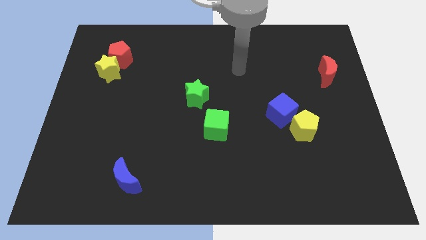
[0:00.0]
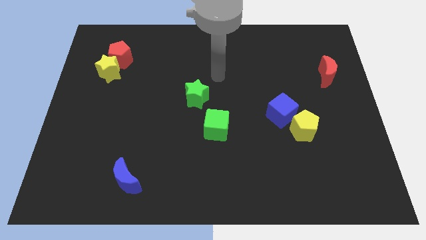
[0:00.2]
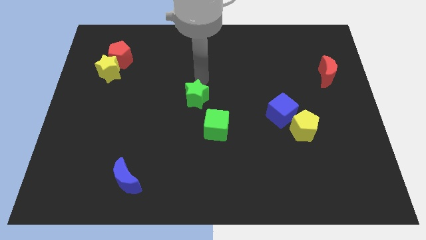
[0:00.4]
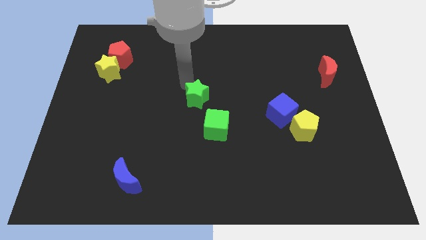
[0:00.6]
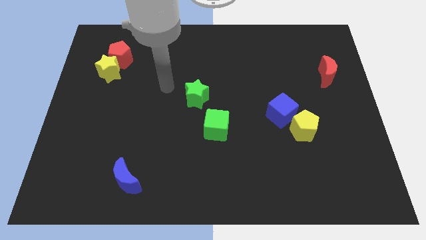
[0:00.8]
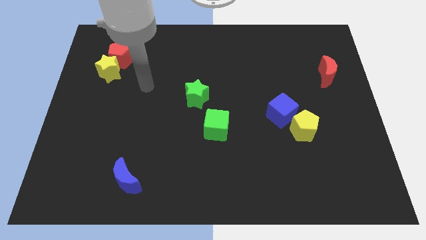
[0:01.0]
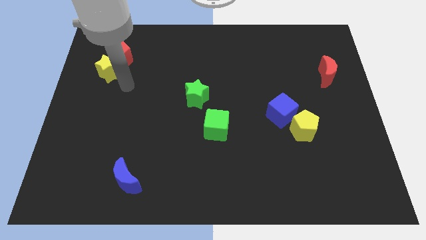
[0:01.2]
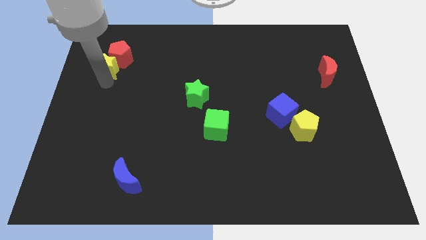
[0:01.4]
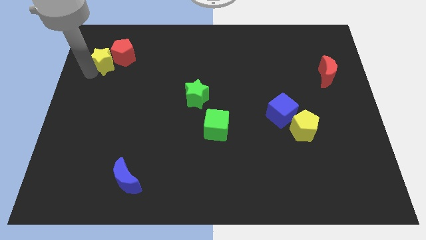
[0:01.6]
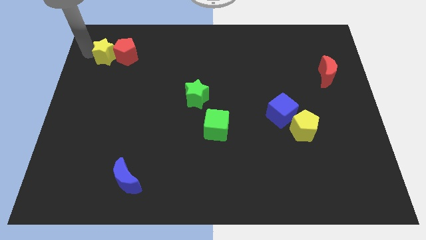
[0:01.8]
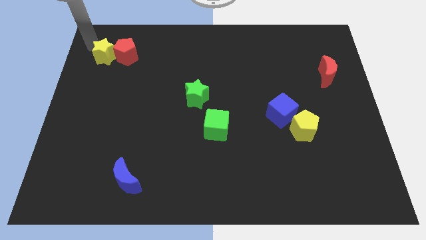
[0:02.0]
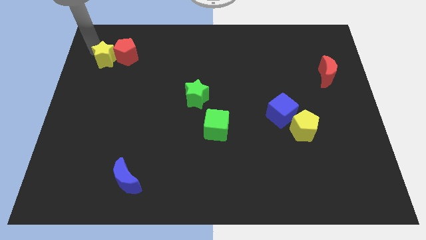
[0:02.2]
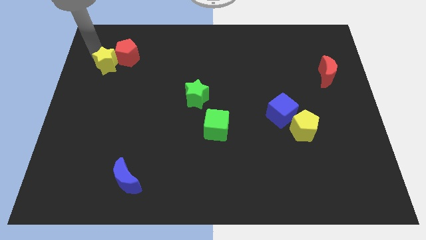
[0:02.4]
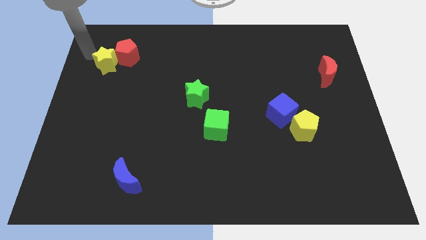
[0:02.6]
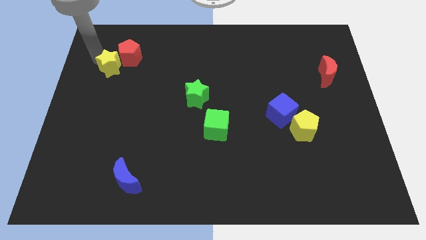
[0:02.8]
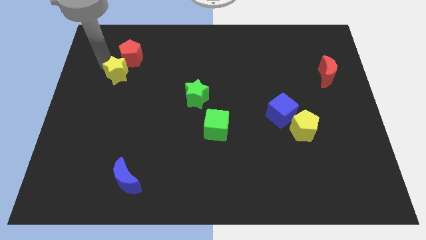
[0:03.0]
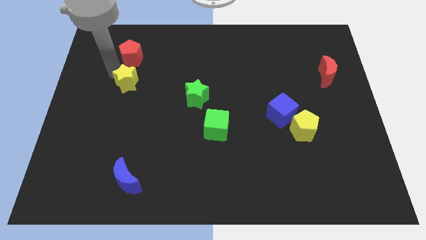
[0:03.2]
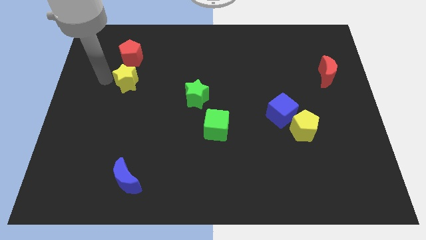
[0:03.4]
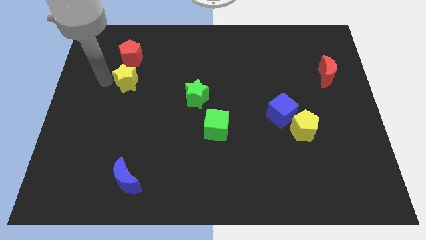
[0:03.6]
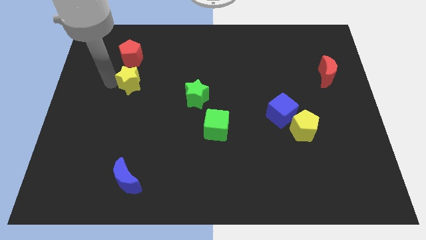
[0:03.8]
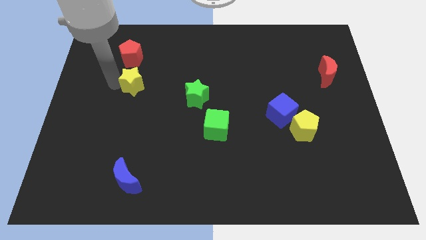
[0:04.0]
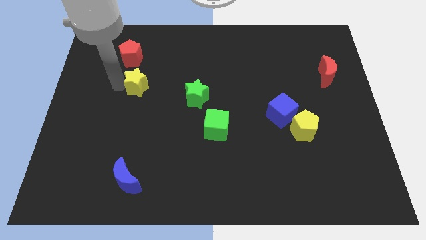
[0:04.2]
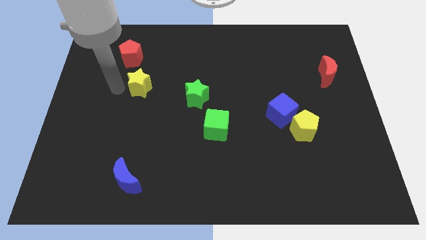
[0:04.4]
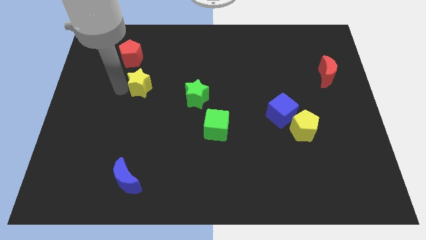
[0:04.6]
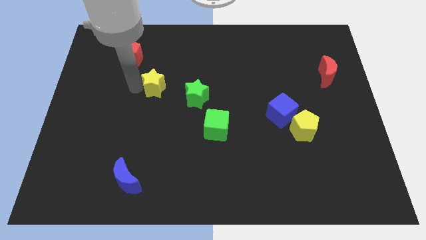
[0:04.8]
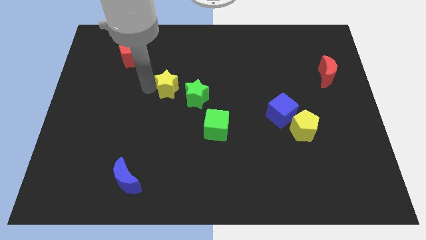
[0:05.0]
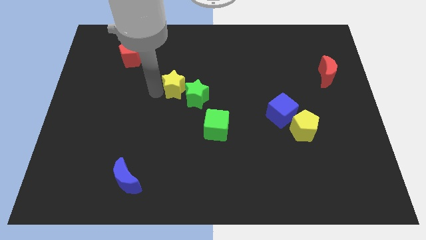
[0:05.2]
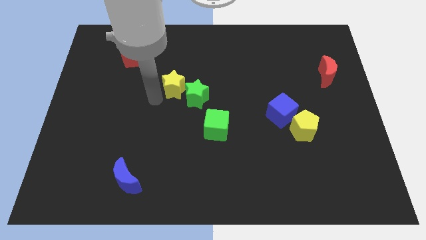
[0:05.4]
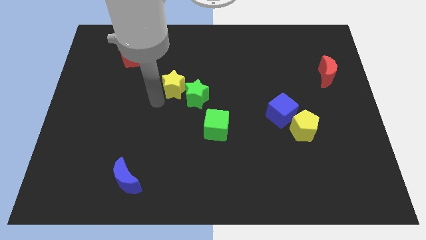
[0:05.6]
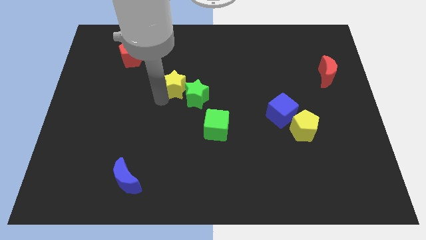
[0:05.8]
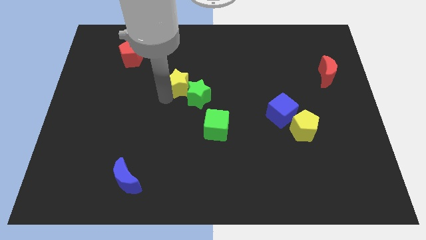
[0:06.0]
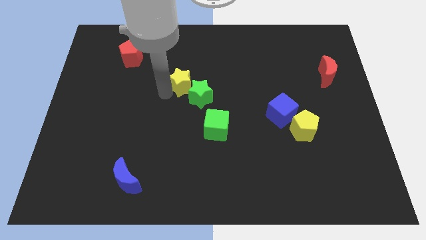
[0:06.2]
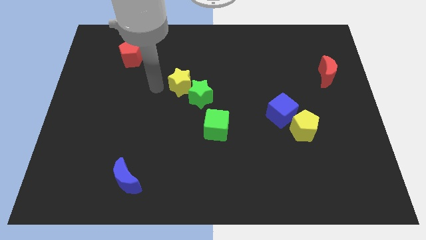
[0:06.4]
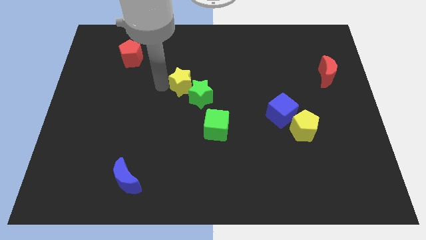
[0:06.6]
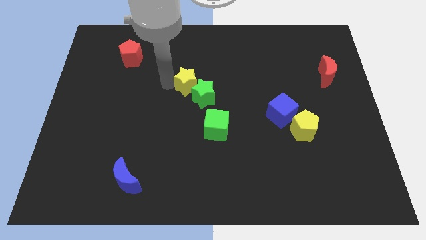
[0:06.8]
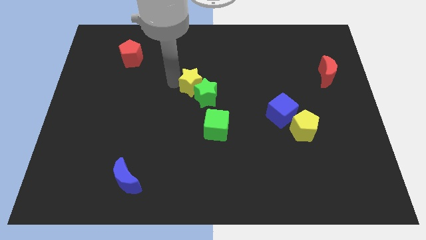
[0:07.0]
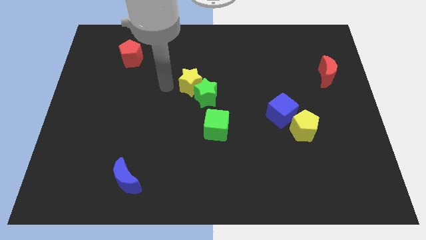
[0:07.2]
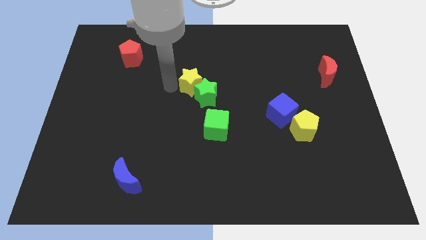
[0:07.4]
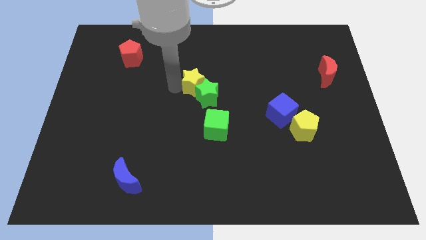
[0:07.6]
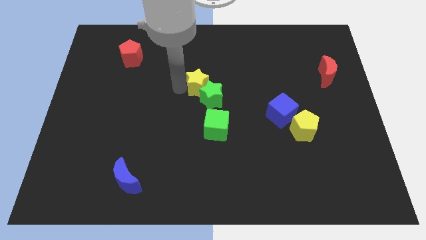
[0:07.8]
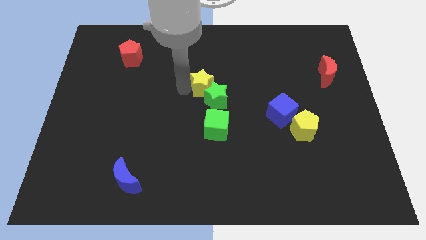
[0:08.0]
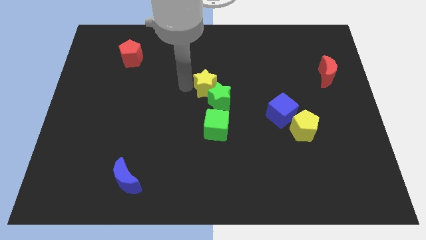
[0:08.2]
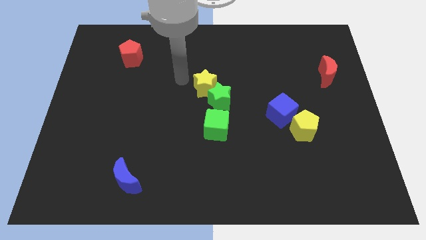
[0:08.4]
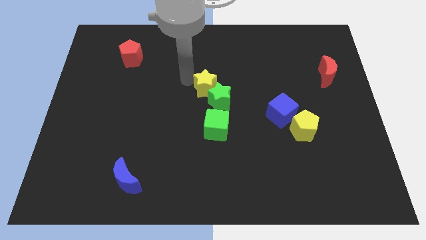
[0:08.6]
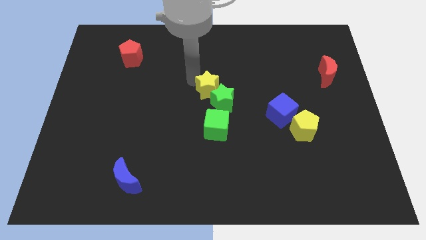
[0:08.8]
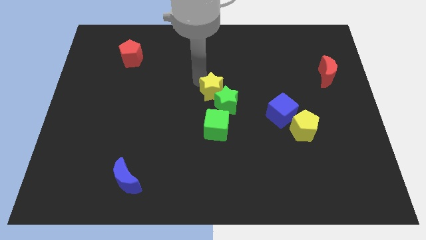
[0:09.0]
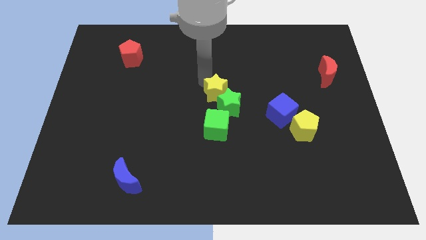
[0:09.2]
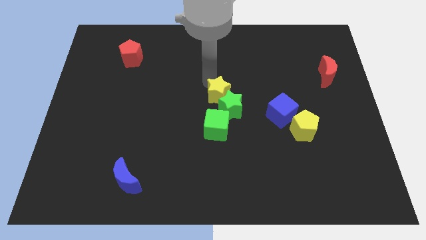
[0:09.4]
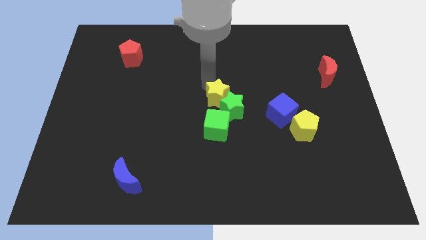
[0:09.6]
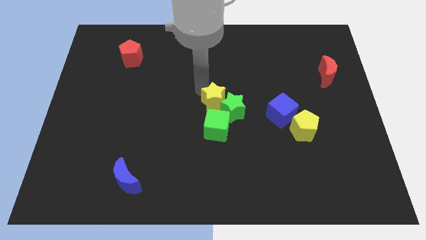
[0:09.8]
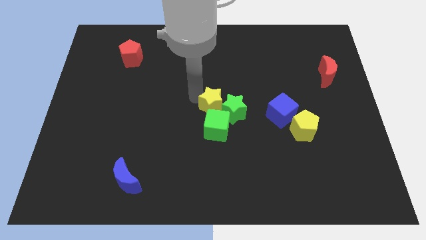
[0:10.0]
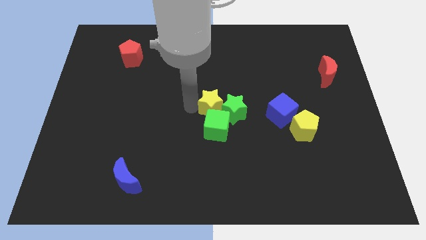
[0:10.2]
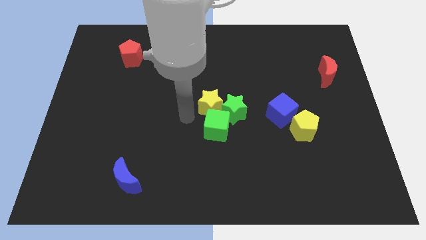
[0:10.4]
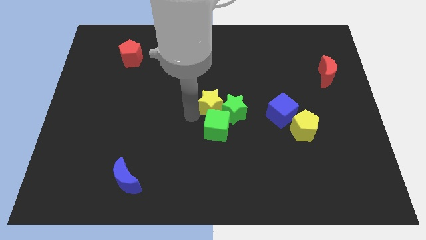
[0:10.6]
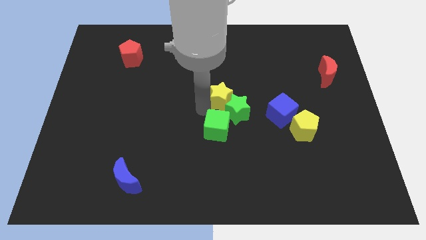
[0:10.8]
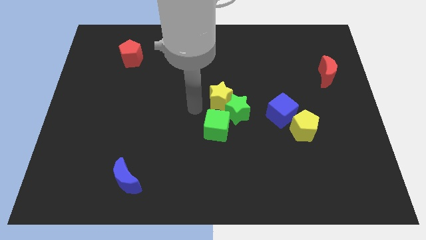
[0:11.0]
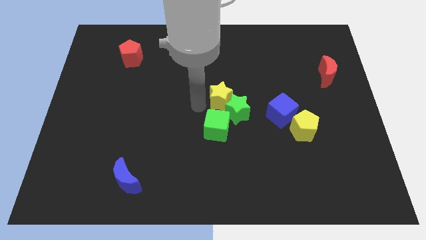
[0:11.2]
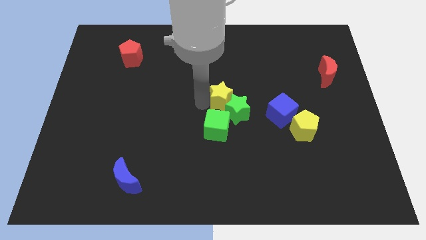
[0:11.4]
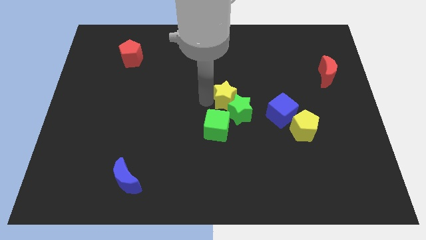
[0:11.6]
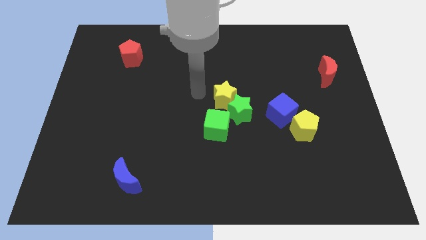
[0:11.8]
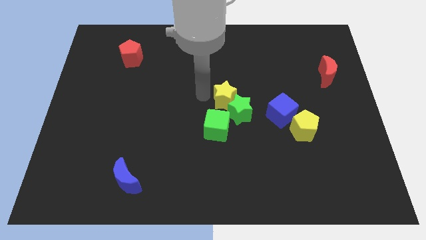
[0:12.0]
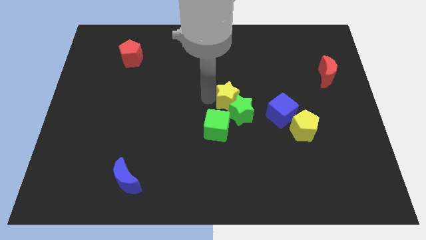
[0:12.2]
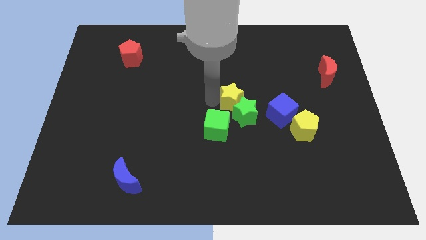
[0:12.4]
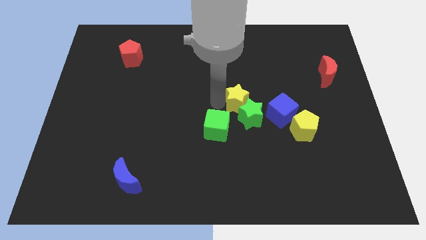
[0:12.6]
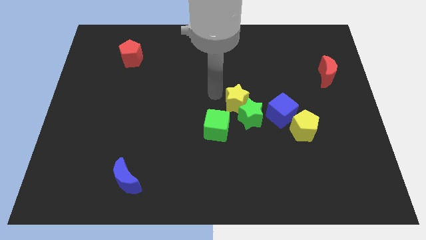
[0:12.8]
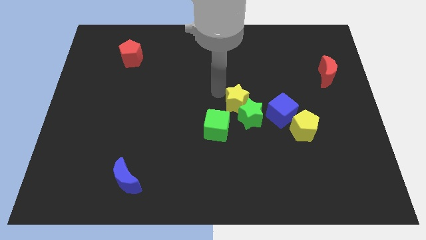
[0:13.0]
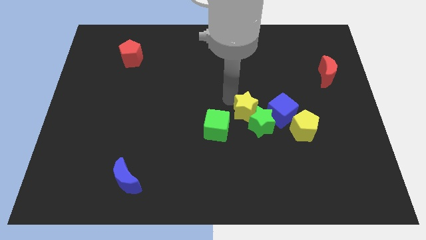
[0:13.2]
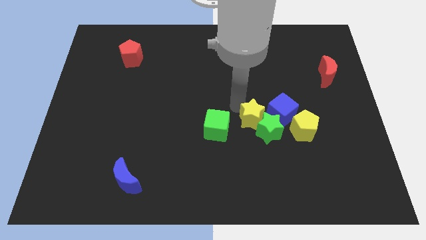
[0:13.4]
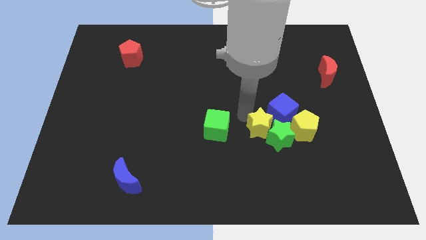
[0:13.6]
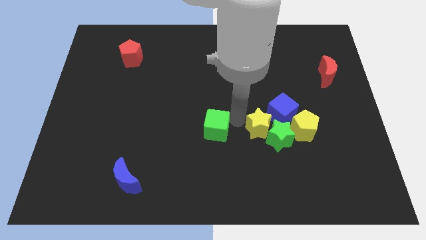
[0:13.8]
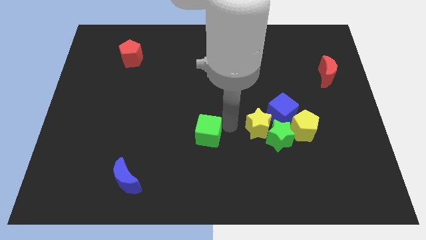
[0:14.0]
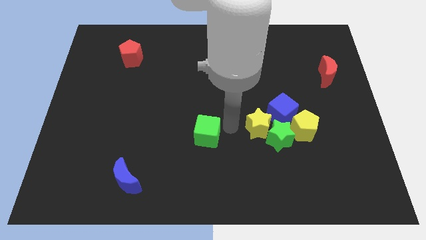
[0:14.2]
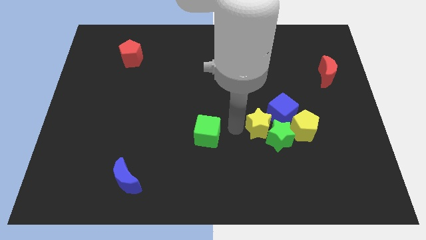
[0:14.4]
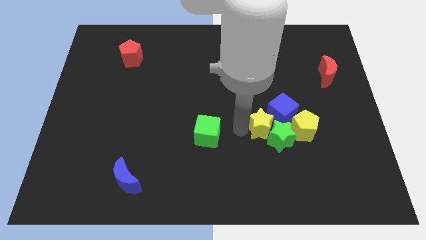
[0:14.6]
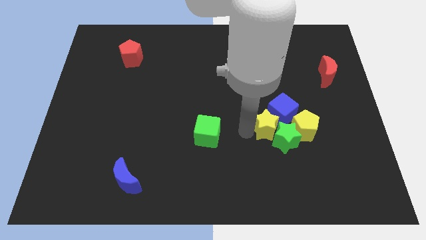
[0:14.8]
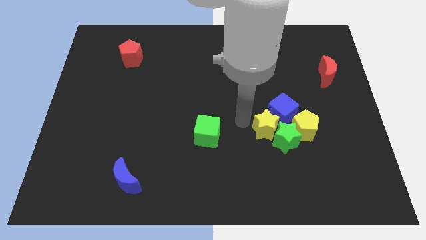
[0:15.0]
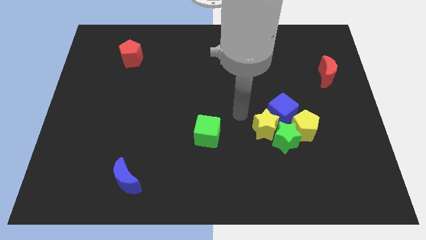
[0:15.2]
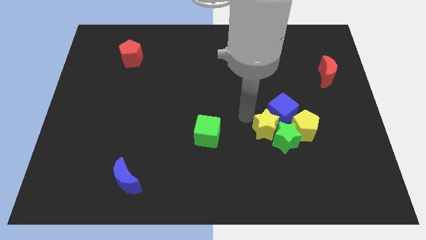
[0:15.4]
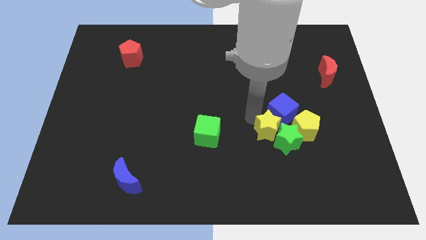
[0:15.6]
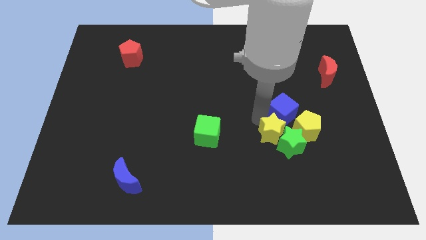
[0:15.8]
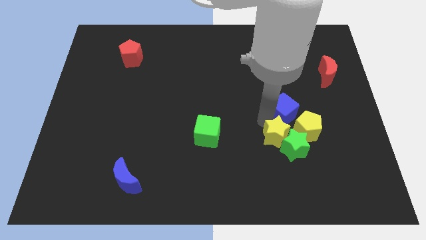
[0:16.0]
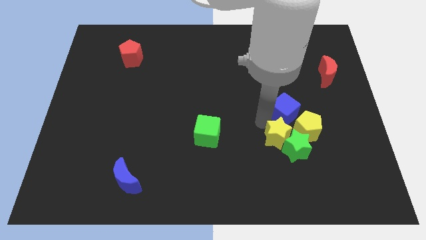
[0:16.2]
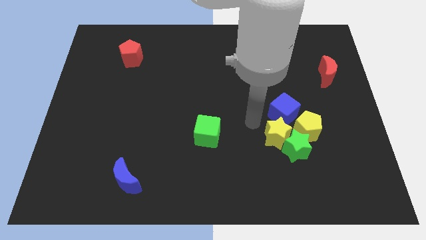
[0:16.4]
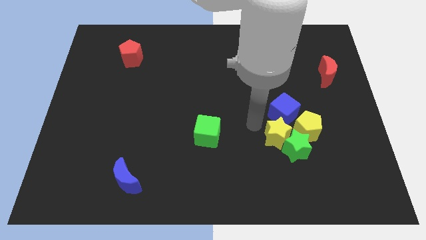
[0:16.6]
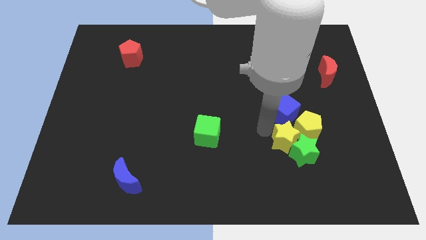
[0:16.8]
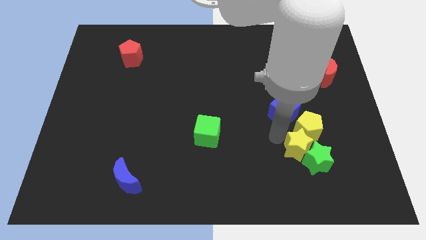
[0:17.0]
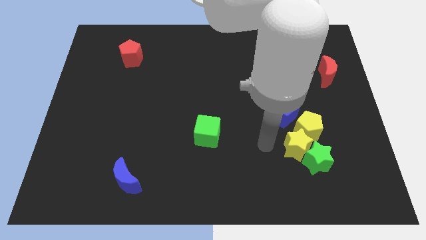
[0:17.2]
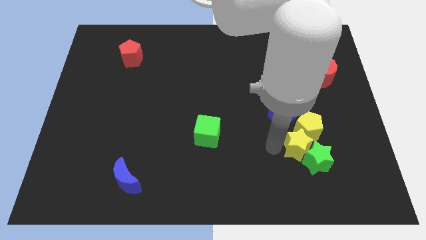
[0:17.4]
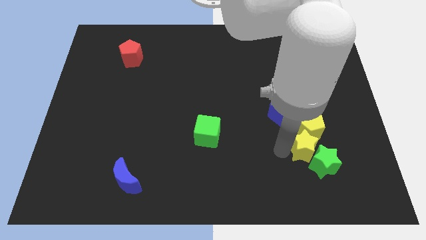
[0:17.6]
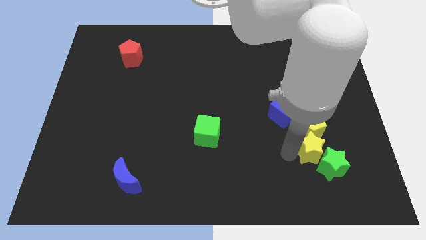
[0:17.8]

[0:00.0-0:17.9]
put the yellow star diagonally down and to the right of the yellow pentagon
